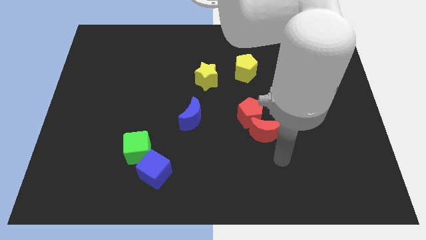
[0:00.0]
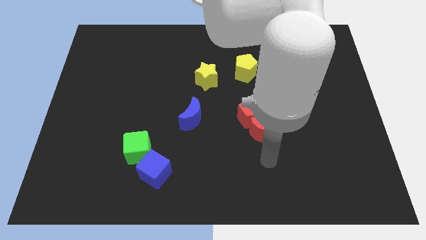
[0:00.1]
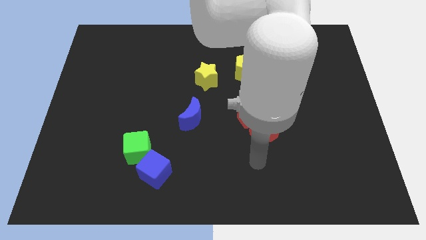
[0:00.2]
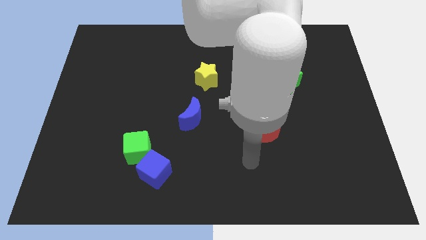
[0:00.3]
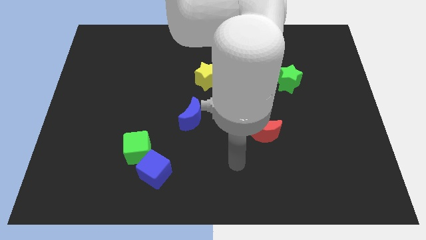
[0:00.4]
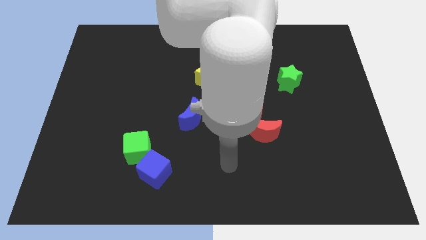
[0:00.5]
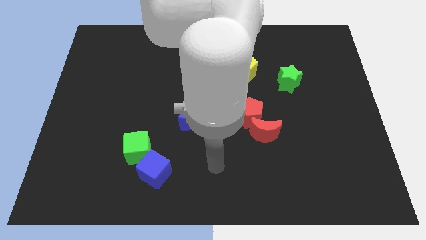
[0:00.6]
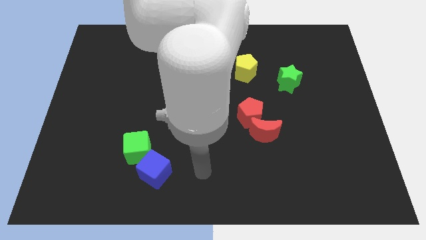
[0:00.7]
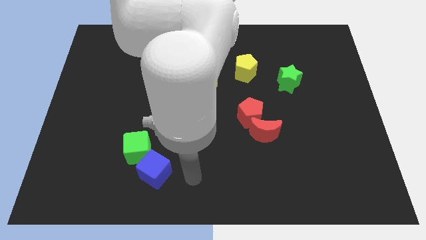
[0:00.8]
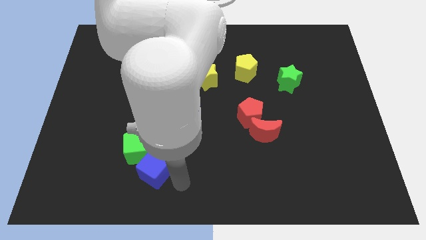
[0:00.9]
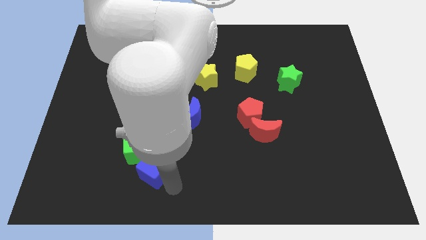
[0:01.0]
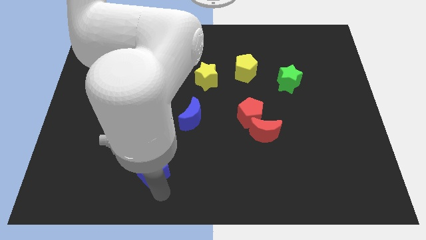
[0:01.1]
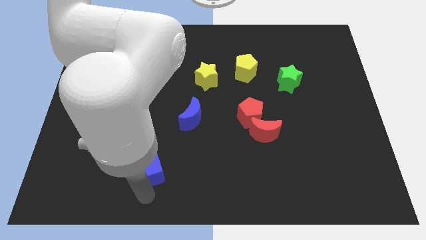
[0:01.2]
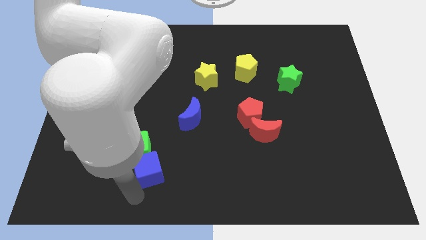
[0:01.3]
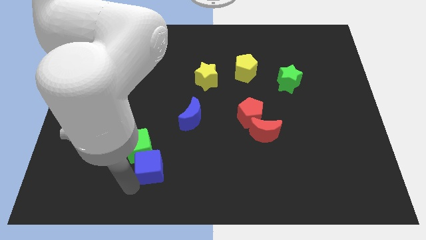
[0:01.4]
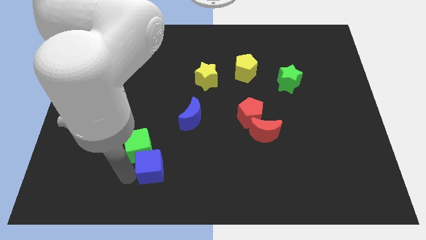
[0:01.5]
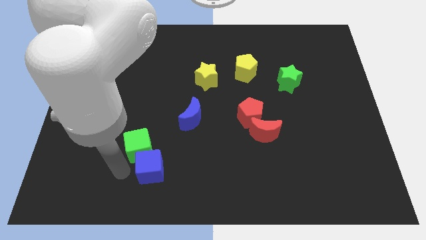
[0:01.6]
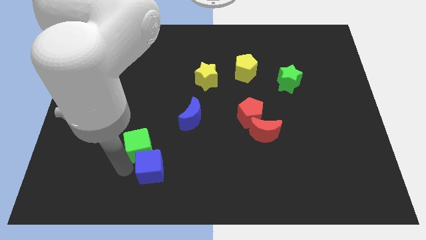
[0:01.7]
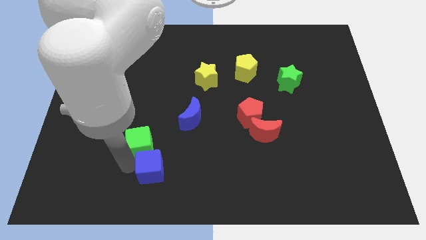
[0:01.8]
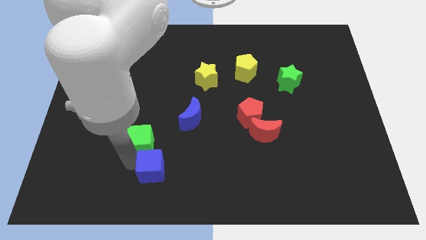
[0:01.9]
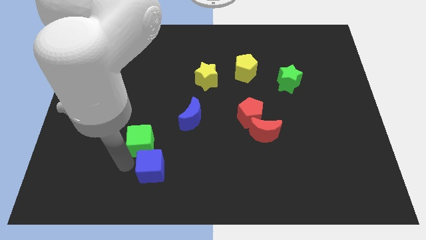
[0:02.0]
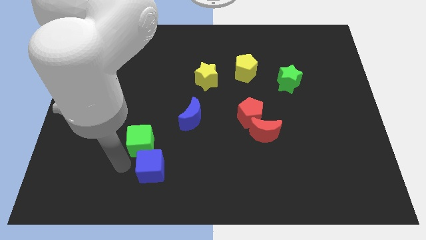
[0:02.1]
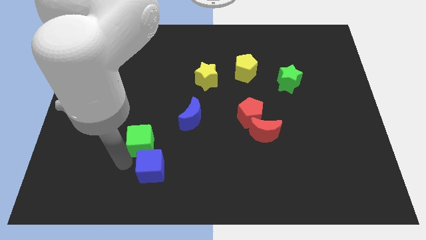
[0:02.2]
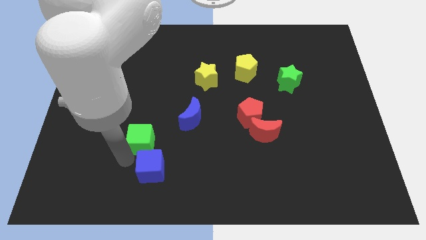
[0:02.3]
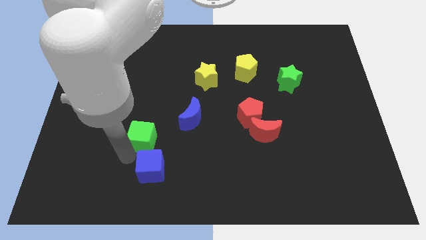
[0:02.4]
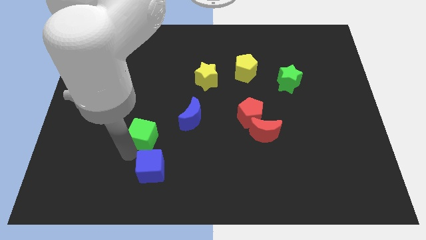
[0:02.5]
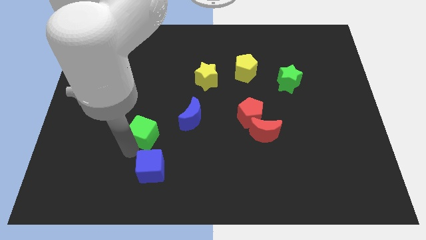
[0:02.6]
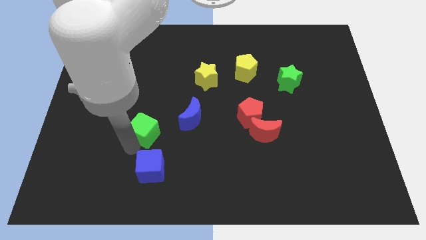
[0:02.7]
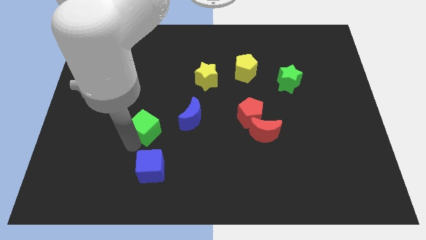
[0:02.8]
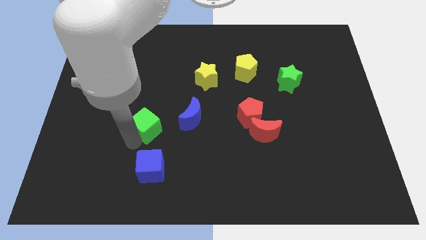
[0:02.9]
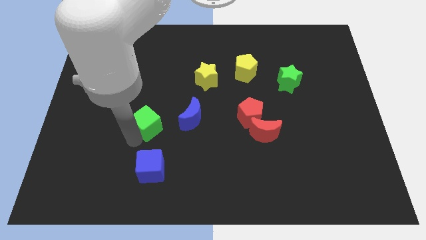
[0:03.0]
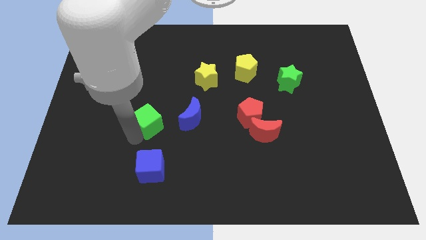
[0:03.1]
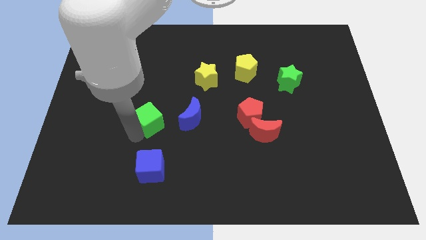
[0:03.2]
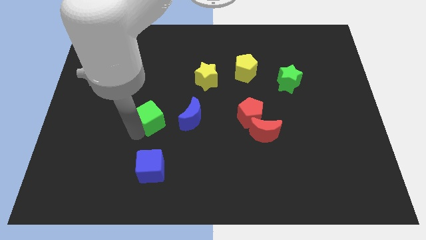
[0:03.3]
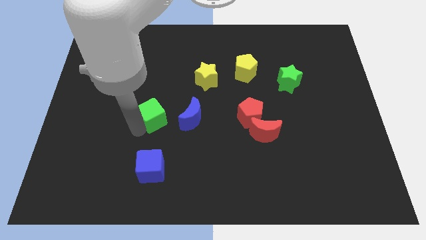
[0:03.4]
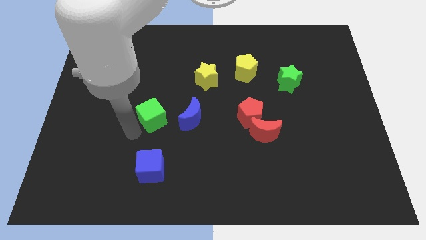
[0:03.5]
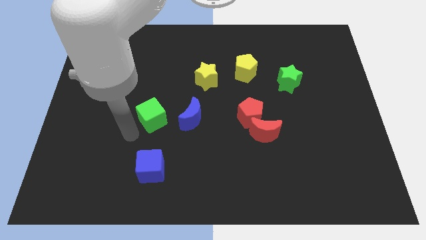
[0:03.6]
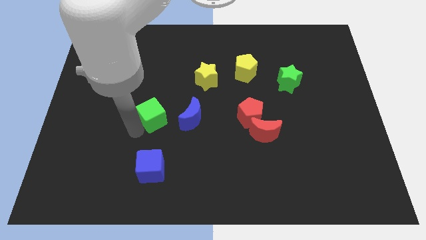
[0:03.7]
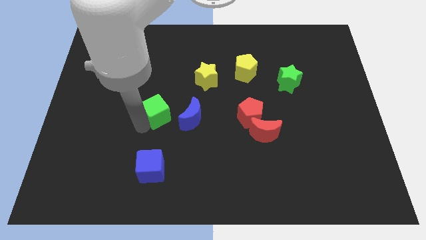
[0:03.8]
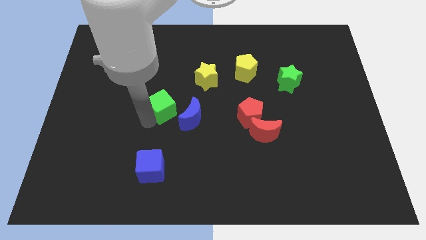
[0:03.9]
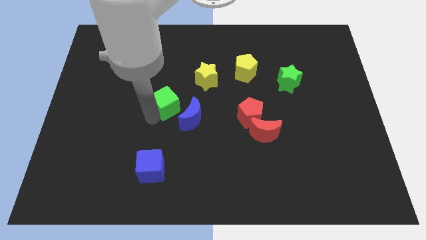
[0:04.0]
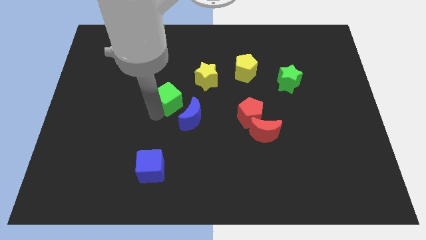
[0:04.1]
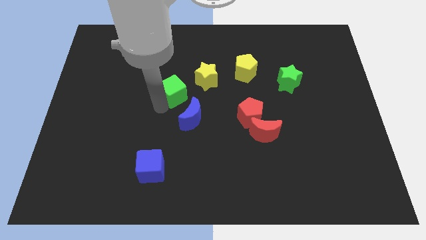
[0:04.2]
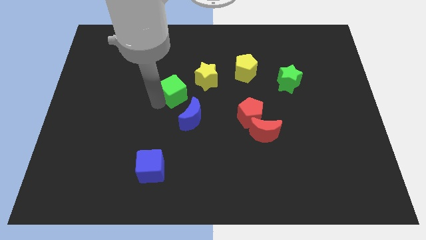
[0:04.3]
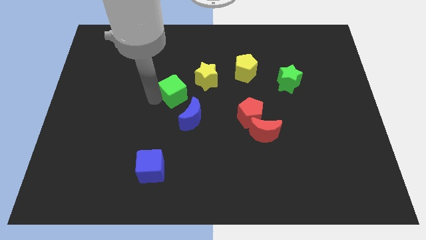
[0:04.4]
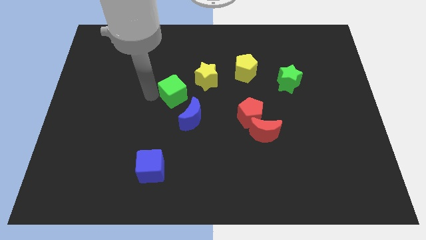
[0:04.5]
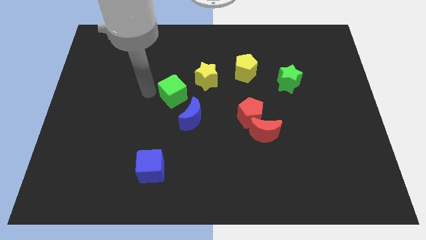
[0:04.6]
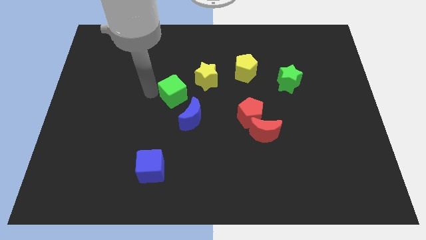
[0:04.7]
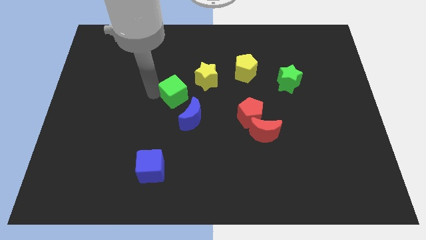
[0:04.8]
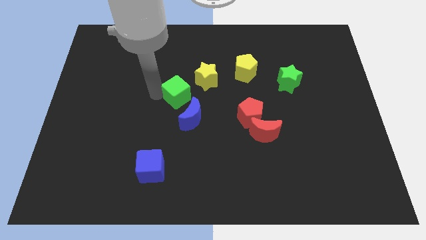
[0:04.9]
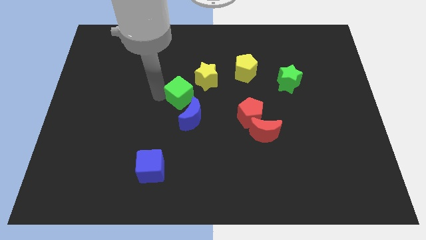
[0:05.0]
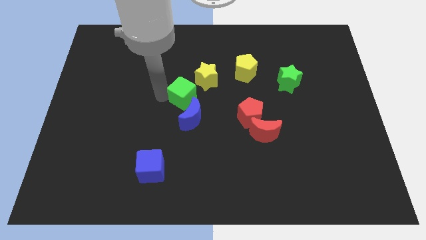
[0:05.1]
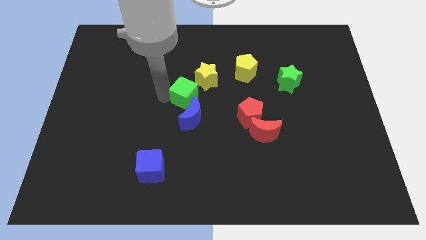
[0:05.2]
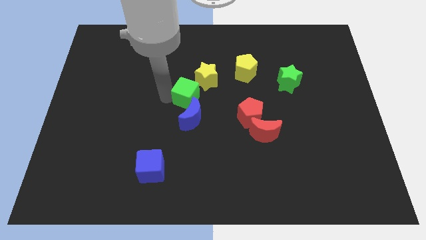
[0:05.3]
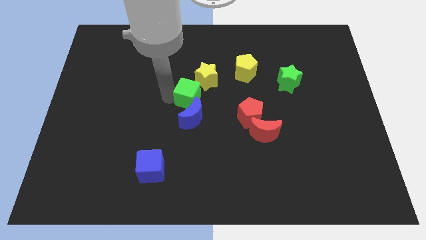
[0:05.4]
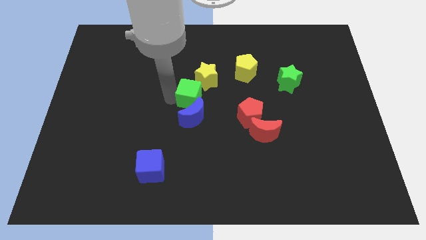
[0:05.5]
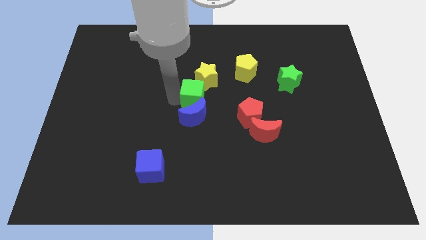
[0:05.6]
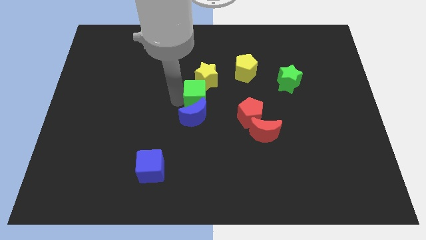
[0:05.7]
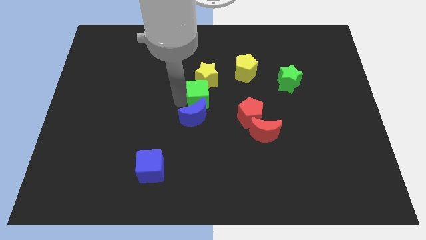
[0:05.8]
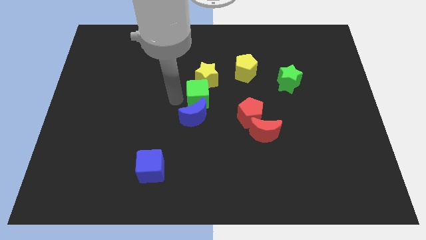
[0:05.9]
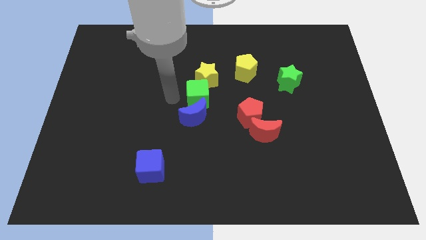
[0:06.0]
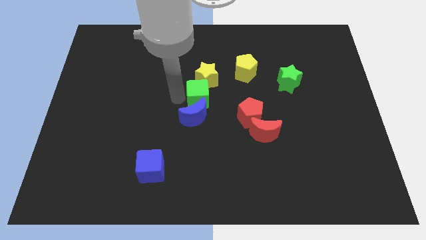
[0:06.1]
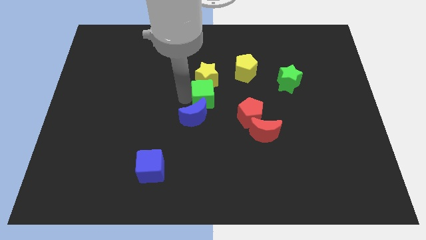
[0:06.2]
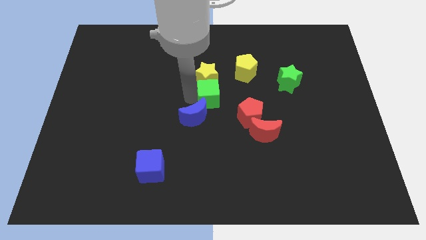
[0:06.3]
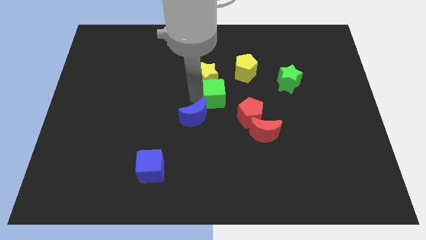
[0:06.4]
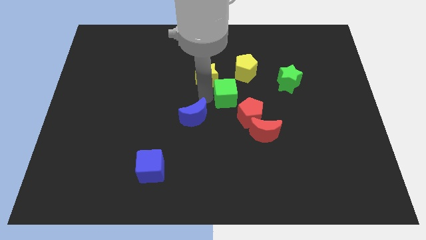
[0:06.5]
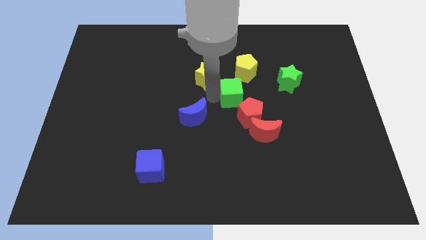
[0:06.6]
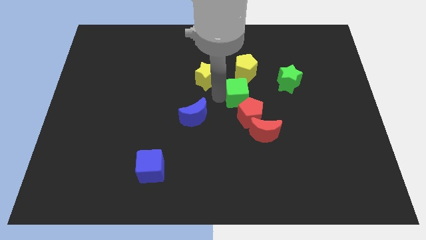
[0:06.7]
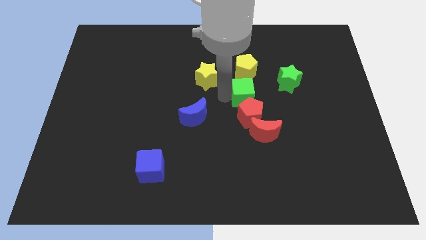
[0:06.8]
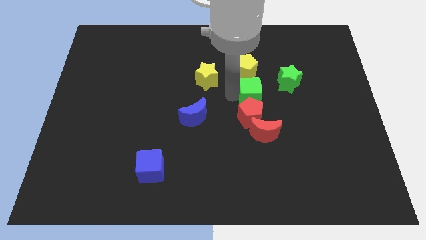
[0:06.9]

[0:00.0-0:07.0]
put the green cube to the bottom left side of the green star

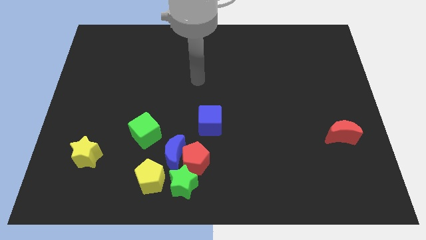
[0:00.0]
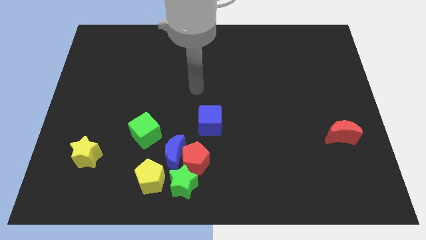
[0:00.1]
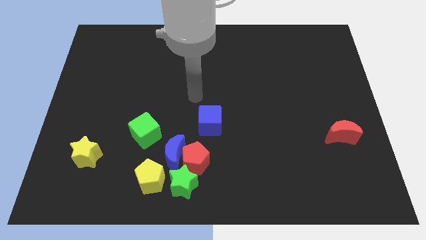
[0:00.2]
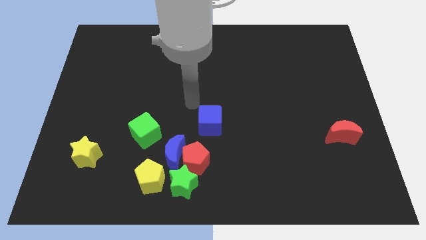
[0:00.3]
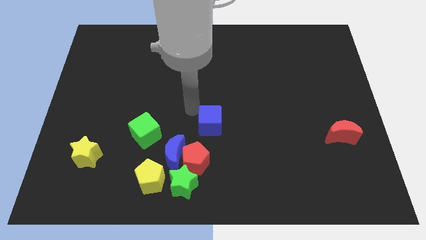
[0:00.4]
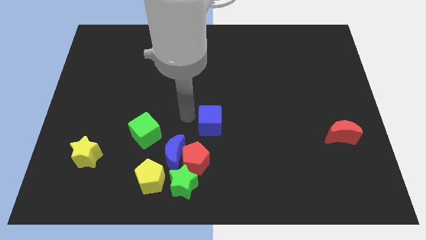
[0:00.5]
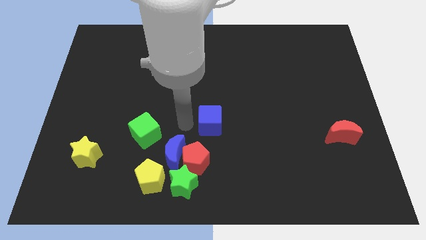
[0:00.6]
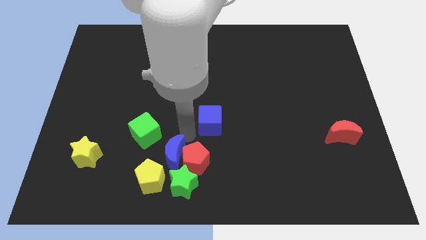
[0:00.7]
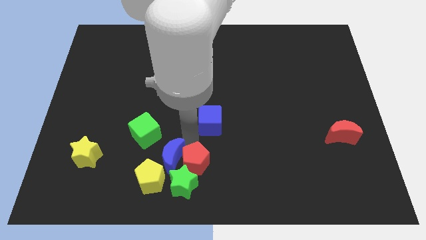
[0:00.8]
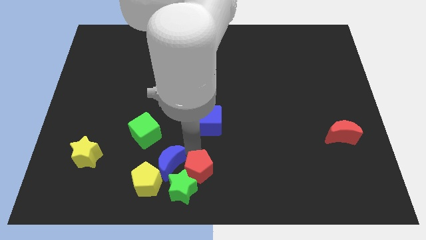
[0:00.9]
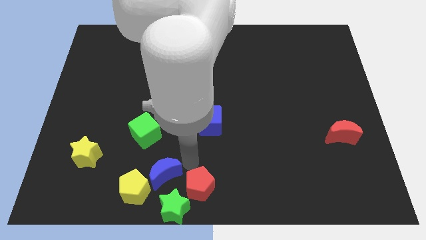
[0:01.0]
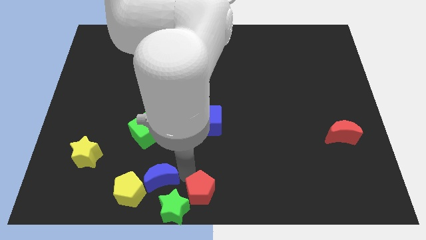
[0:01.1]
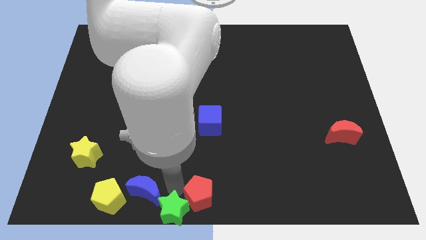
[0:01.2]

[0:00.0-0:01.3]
put the yellow pentagon to the bottom right side of the yellow star
